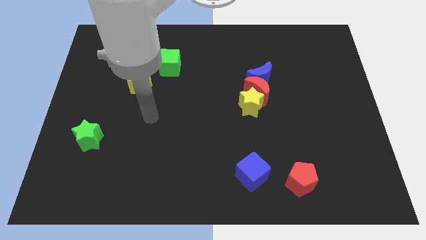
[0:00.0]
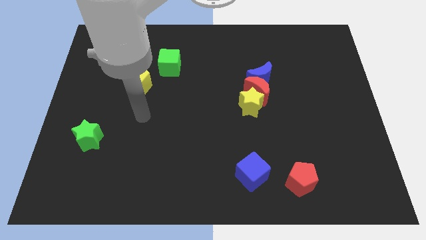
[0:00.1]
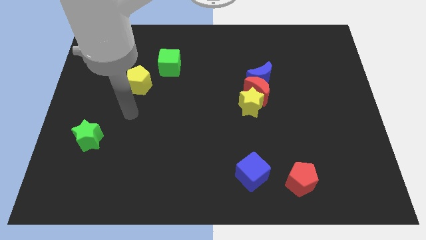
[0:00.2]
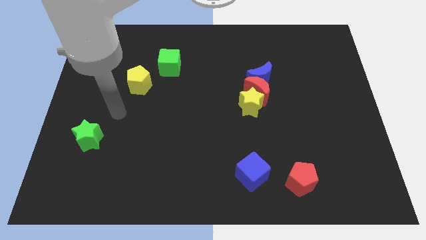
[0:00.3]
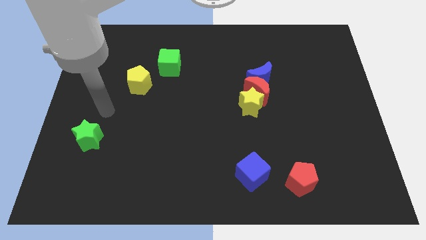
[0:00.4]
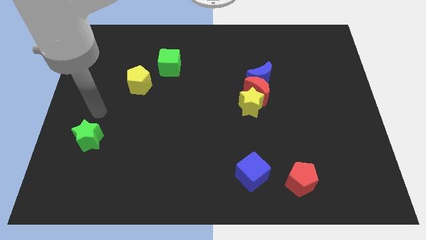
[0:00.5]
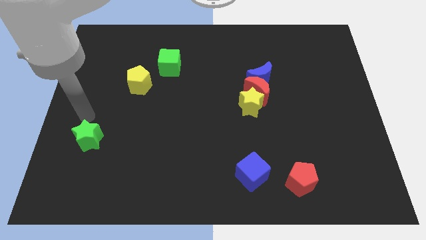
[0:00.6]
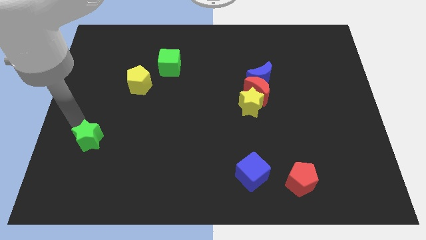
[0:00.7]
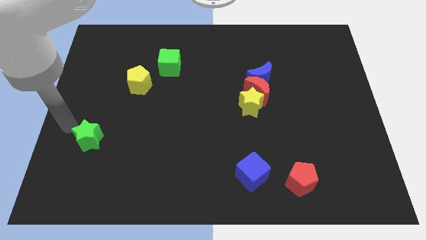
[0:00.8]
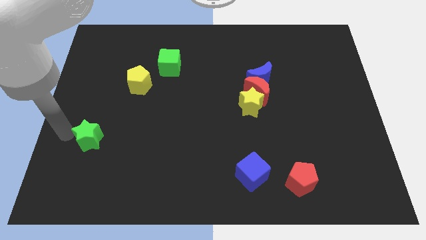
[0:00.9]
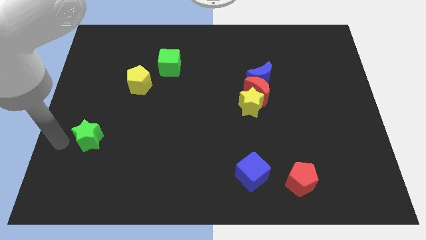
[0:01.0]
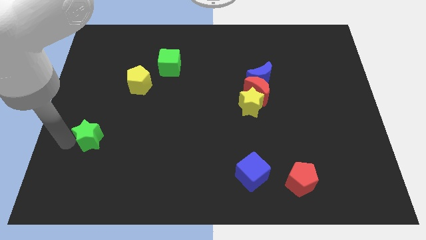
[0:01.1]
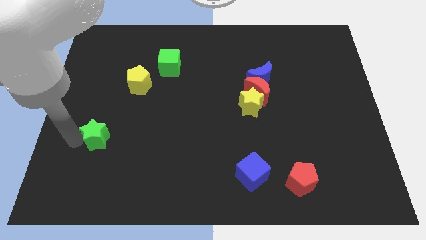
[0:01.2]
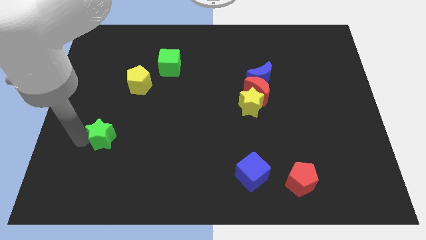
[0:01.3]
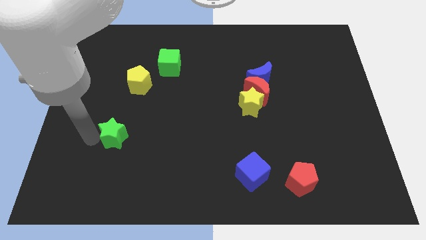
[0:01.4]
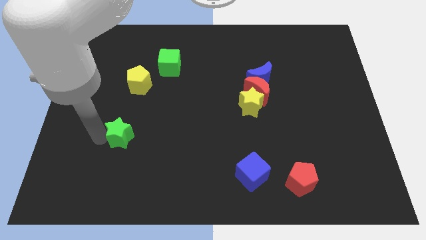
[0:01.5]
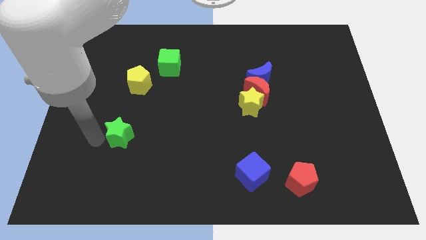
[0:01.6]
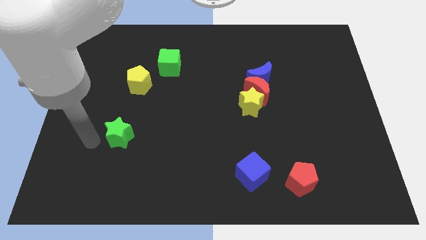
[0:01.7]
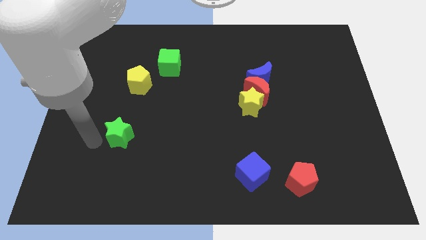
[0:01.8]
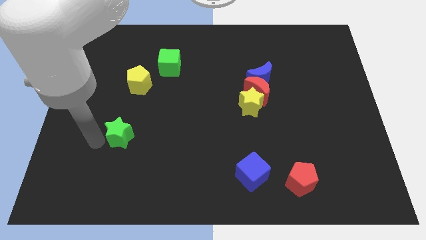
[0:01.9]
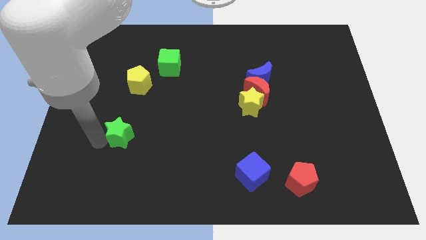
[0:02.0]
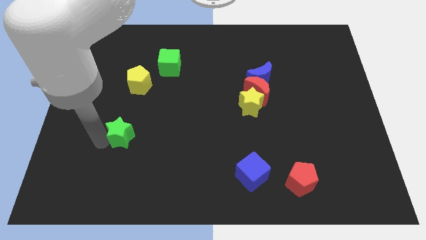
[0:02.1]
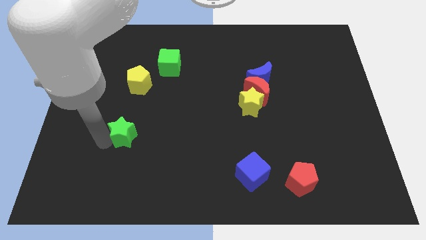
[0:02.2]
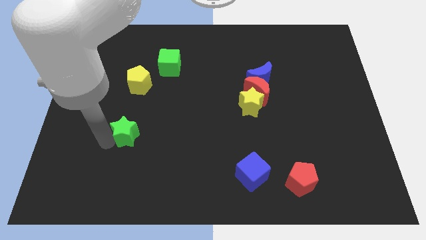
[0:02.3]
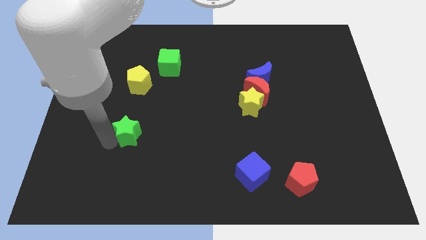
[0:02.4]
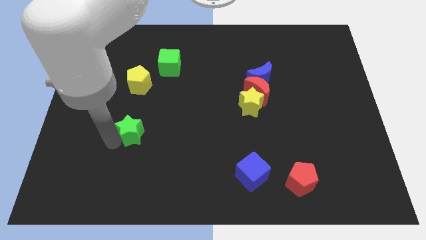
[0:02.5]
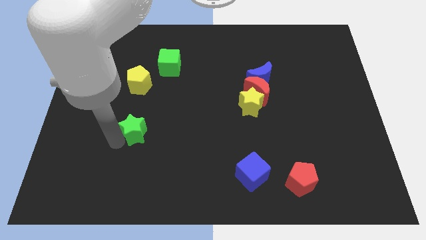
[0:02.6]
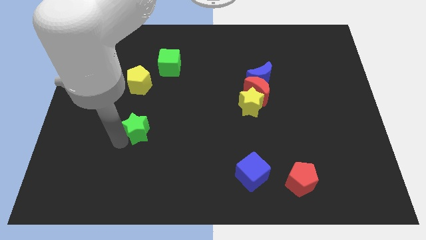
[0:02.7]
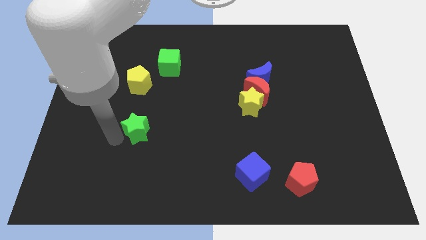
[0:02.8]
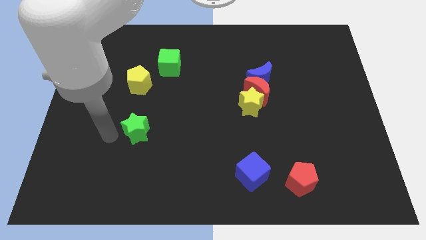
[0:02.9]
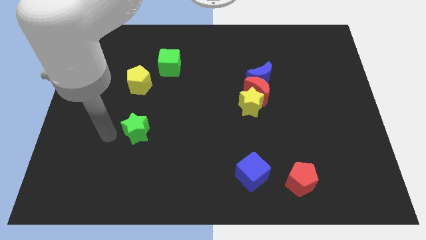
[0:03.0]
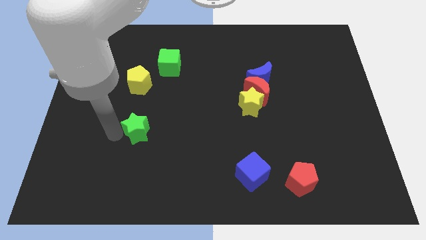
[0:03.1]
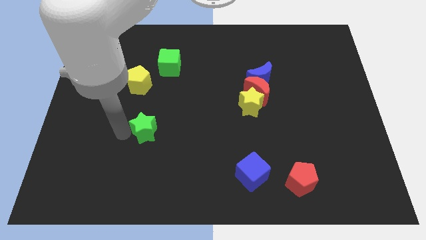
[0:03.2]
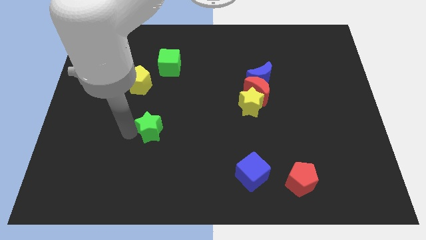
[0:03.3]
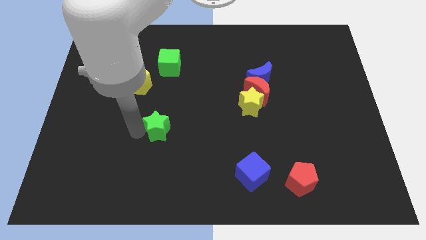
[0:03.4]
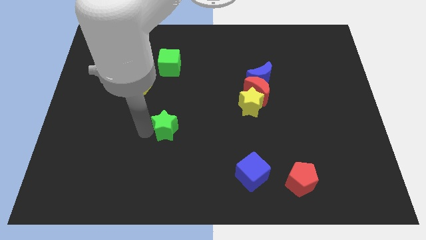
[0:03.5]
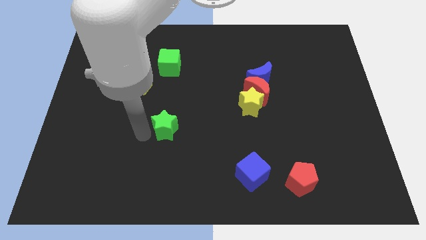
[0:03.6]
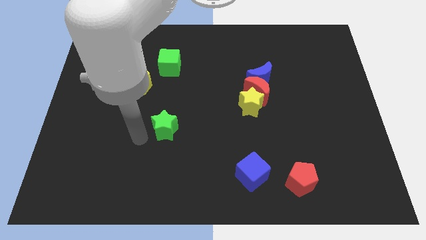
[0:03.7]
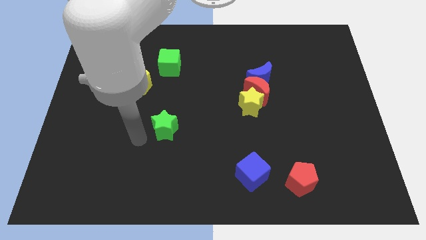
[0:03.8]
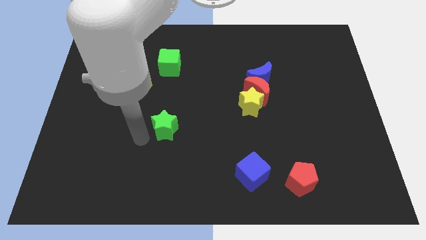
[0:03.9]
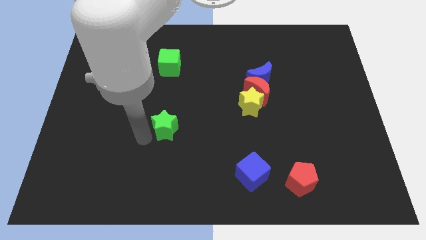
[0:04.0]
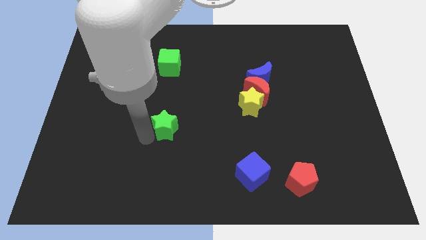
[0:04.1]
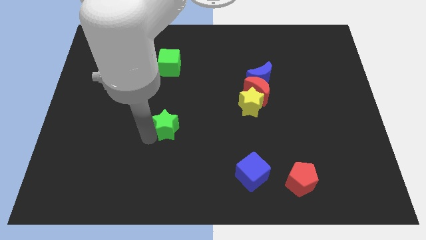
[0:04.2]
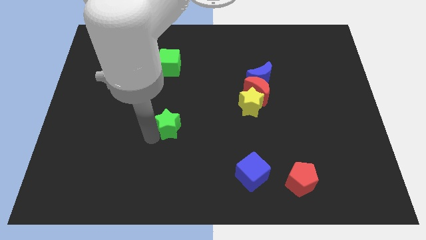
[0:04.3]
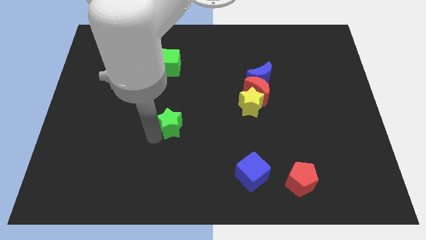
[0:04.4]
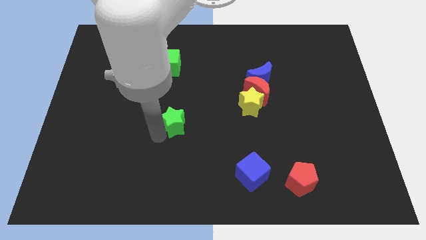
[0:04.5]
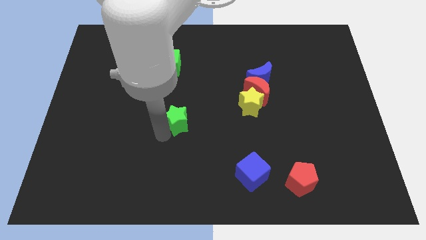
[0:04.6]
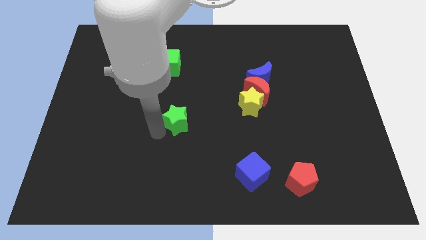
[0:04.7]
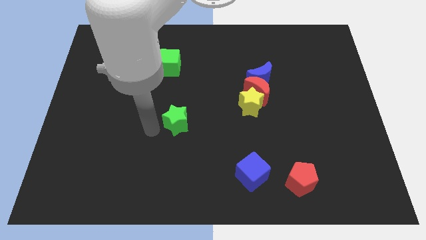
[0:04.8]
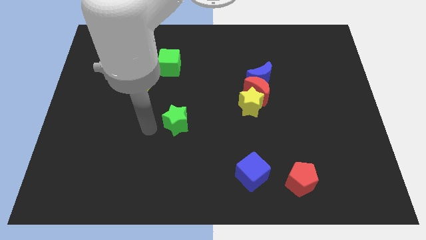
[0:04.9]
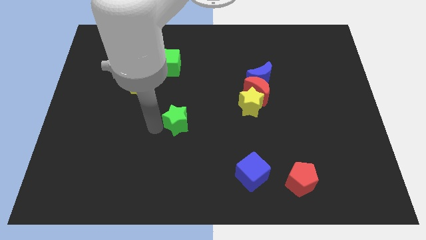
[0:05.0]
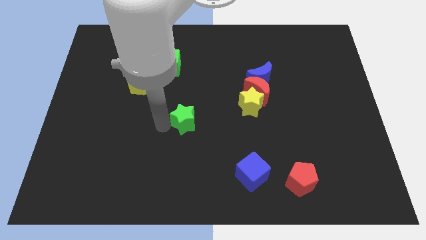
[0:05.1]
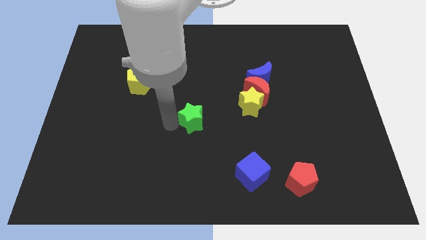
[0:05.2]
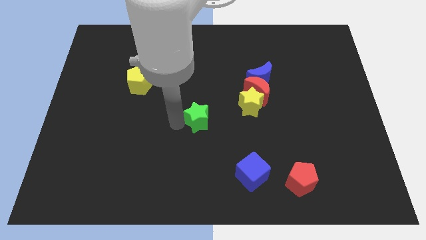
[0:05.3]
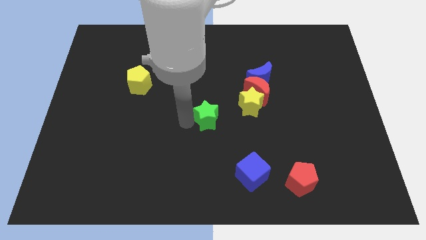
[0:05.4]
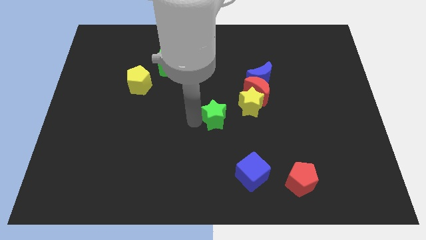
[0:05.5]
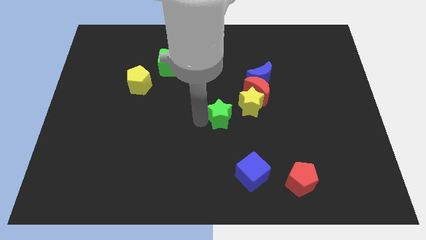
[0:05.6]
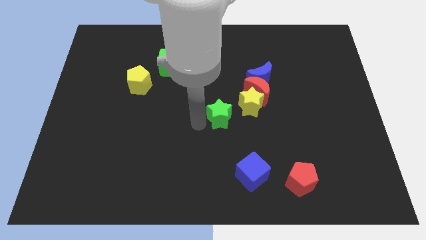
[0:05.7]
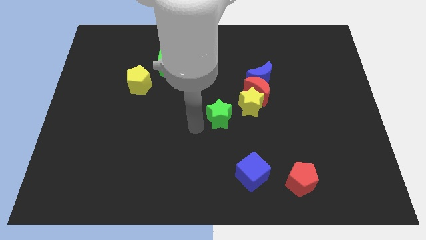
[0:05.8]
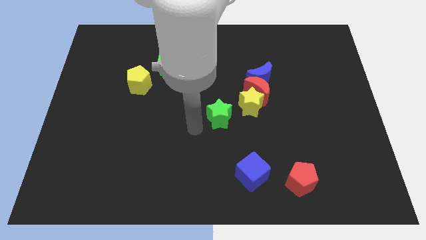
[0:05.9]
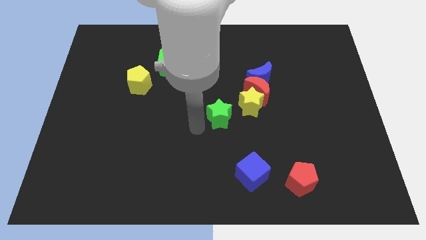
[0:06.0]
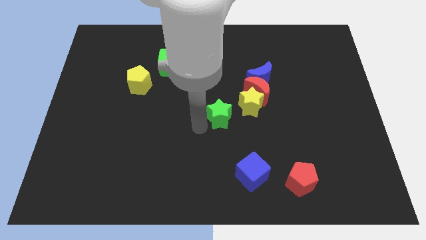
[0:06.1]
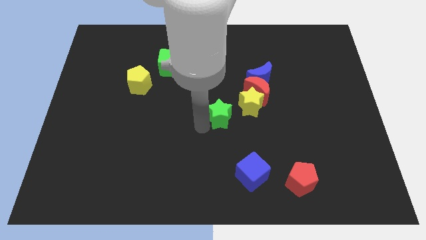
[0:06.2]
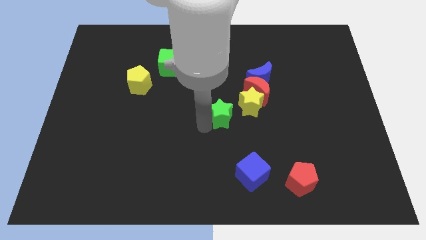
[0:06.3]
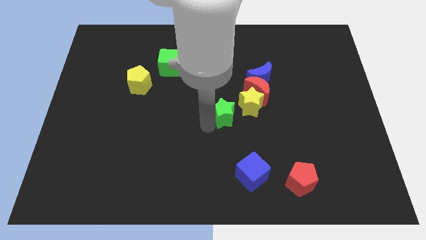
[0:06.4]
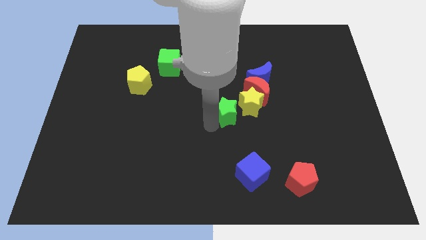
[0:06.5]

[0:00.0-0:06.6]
put the green star towards the yellow star

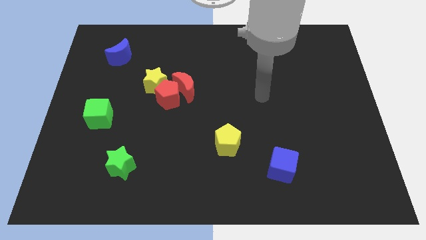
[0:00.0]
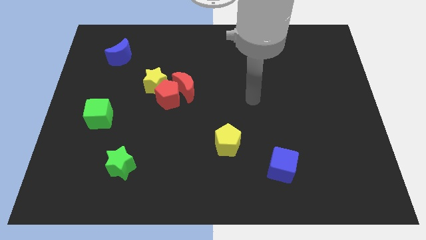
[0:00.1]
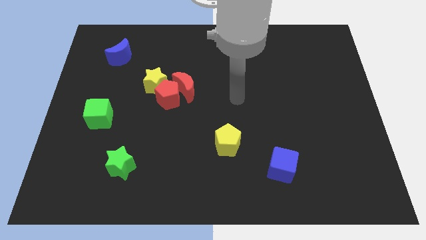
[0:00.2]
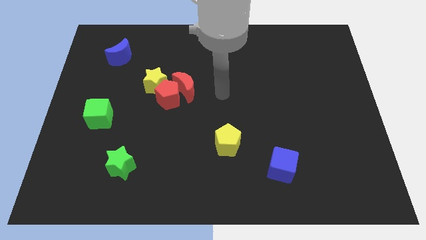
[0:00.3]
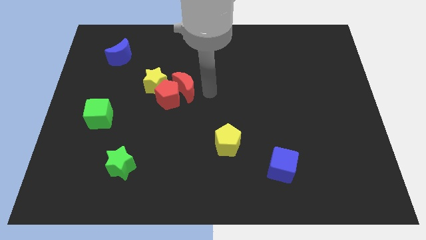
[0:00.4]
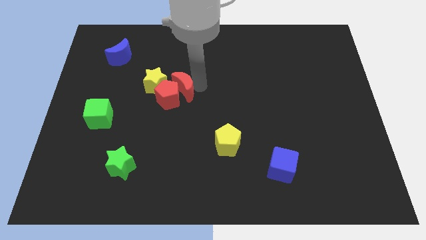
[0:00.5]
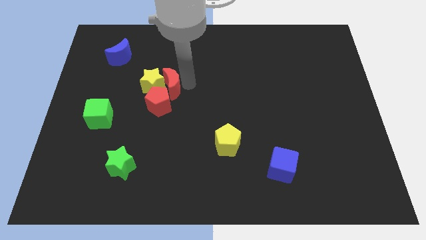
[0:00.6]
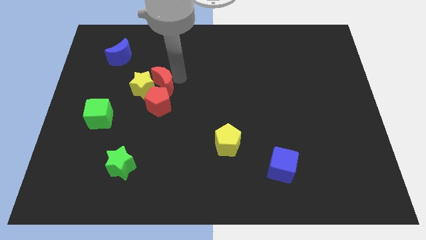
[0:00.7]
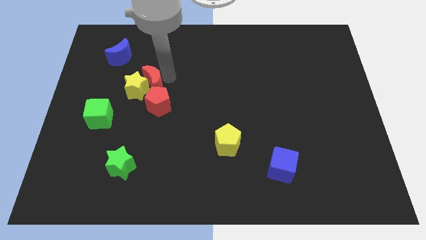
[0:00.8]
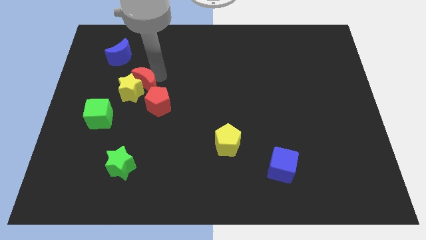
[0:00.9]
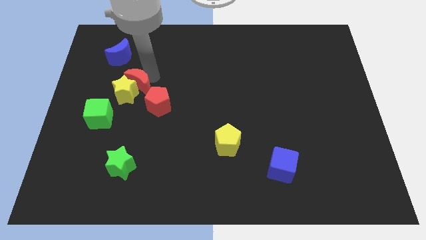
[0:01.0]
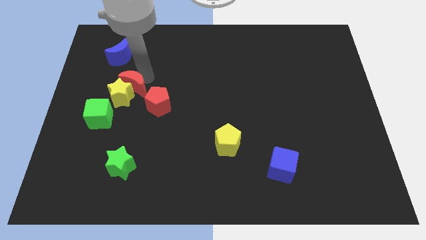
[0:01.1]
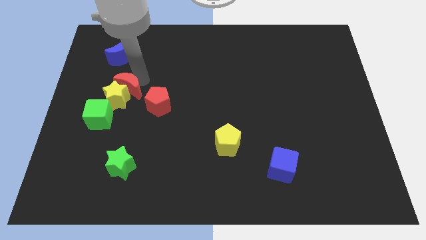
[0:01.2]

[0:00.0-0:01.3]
move the yellow star towards the green cube
